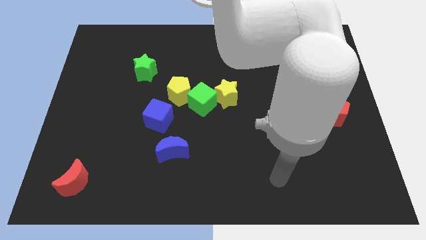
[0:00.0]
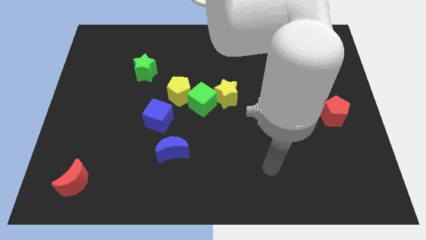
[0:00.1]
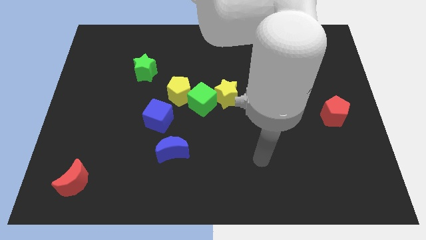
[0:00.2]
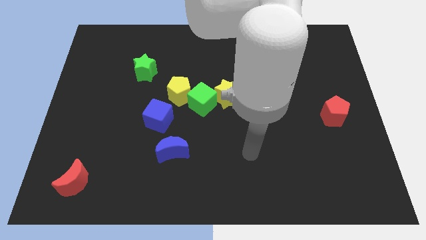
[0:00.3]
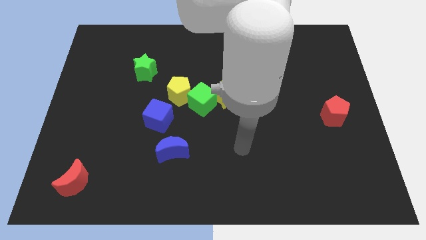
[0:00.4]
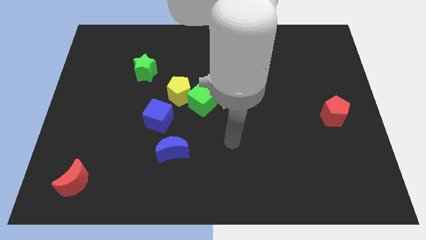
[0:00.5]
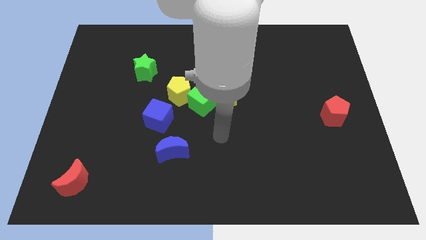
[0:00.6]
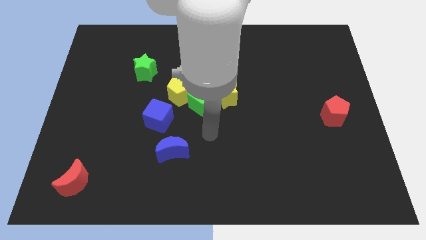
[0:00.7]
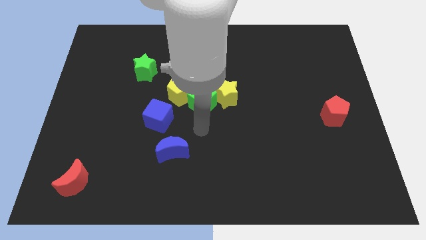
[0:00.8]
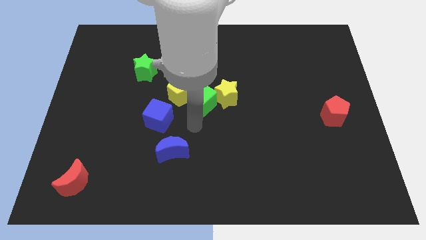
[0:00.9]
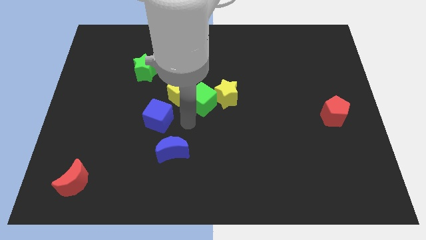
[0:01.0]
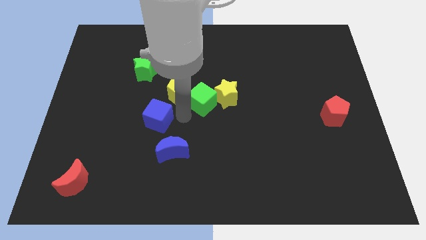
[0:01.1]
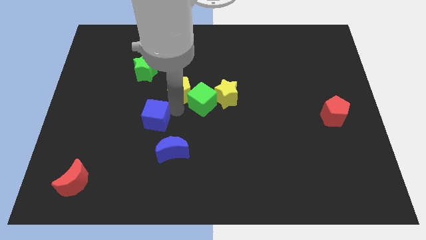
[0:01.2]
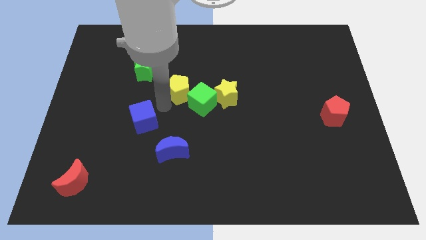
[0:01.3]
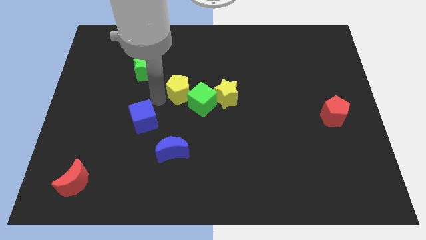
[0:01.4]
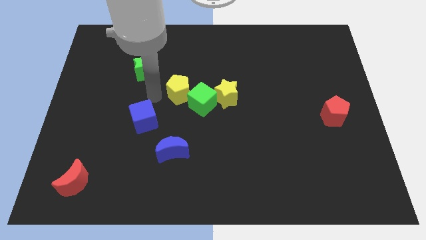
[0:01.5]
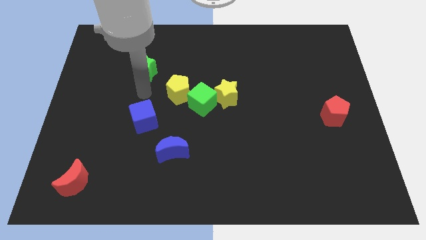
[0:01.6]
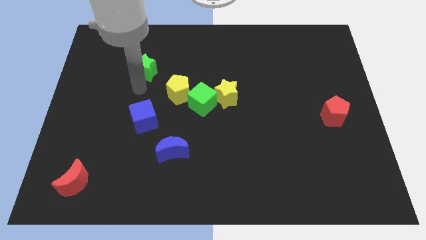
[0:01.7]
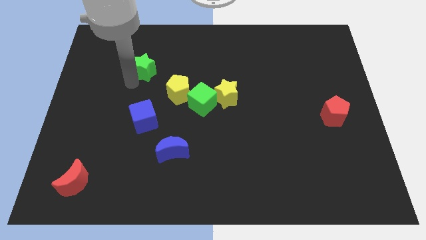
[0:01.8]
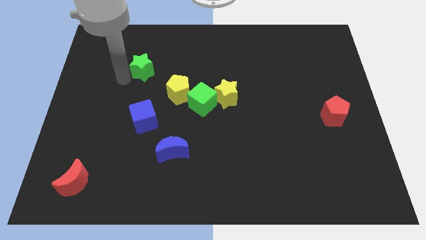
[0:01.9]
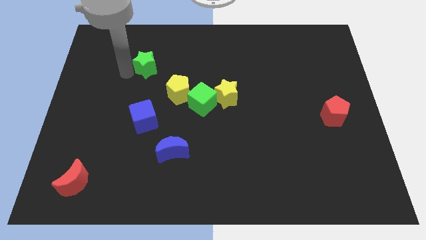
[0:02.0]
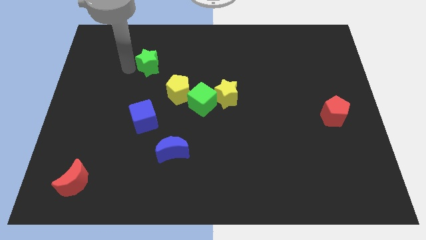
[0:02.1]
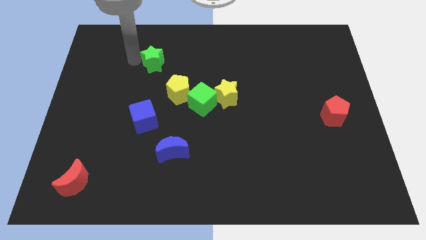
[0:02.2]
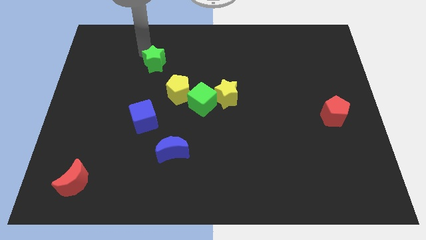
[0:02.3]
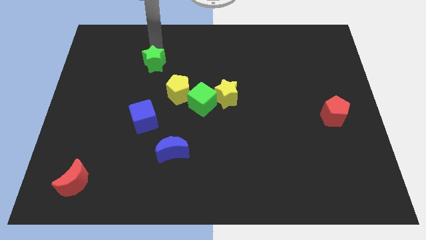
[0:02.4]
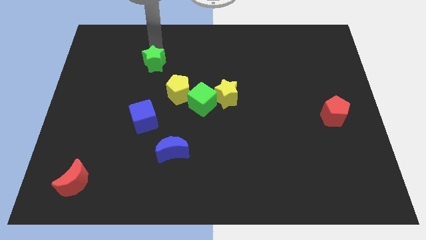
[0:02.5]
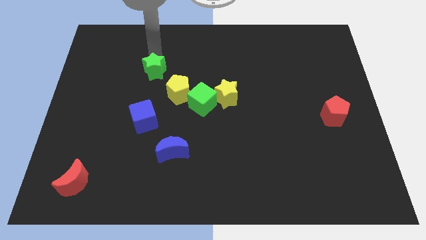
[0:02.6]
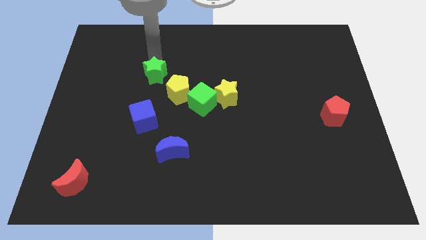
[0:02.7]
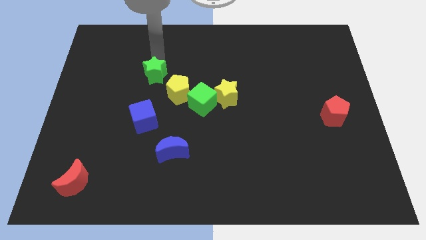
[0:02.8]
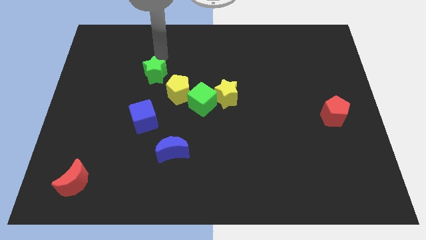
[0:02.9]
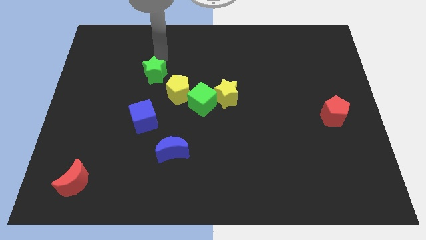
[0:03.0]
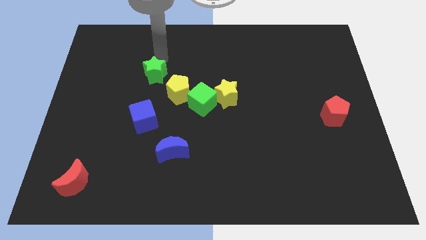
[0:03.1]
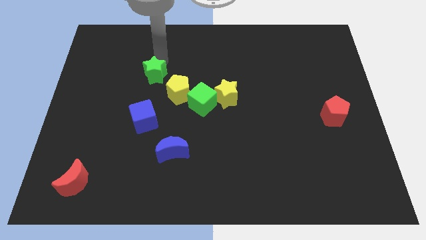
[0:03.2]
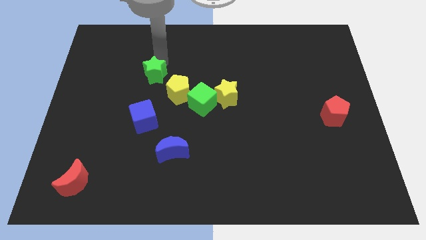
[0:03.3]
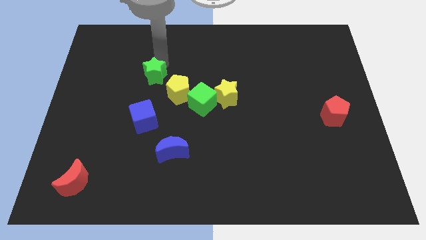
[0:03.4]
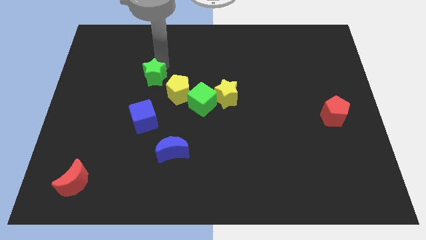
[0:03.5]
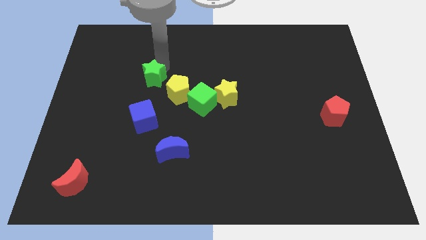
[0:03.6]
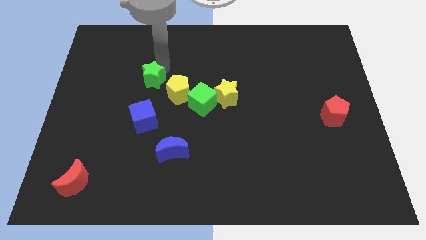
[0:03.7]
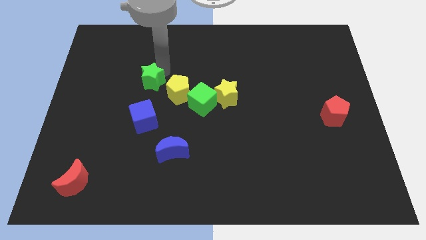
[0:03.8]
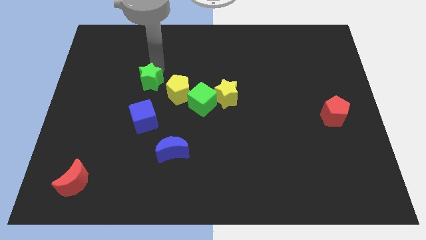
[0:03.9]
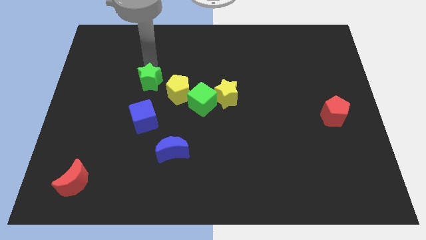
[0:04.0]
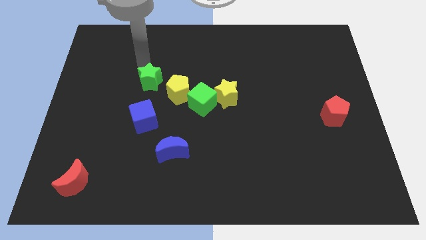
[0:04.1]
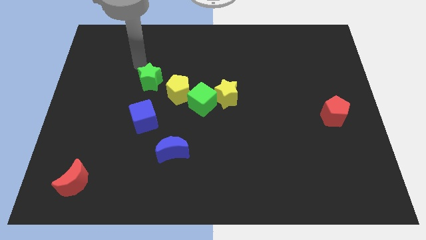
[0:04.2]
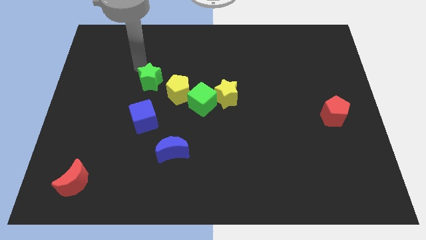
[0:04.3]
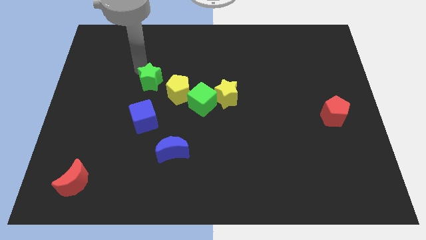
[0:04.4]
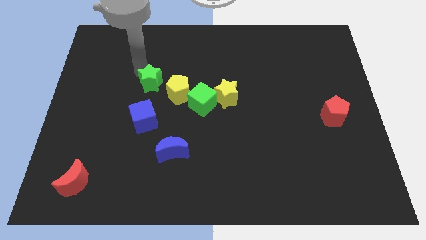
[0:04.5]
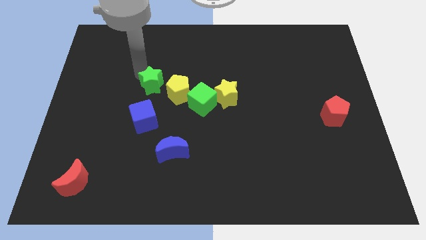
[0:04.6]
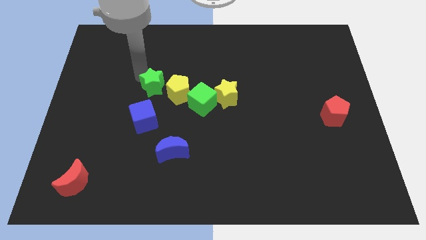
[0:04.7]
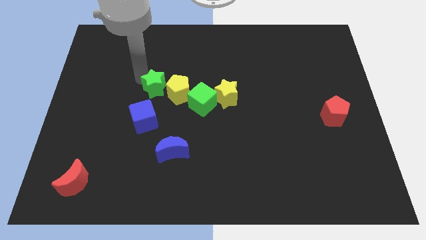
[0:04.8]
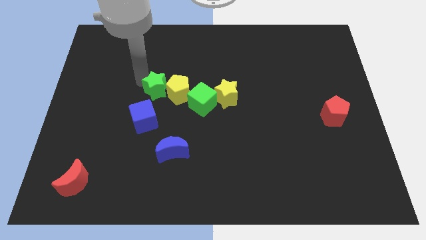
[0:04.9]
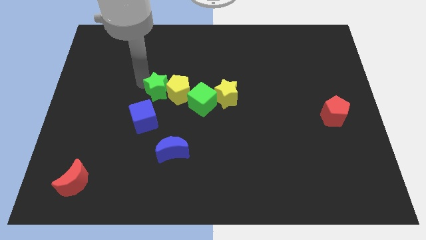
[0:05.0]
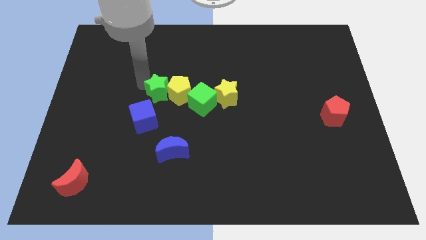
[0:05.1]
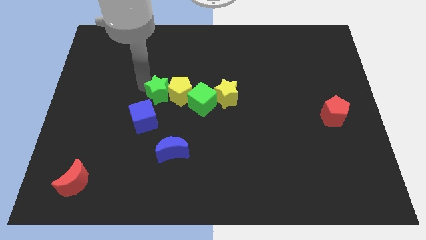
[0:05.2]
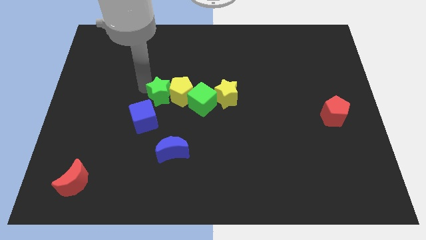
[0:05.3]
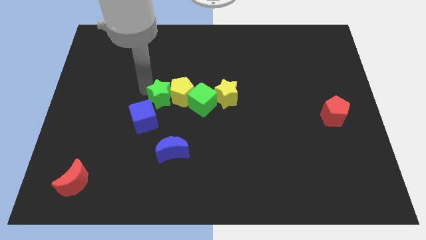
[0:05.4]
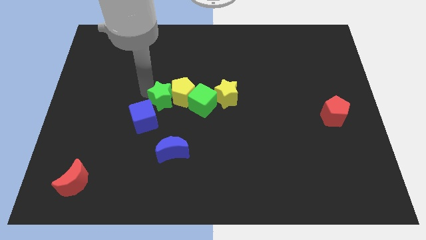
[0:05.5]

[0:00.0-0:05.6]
slide the green star to the top of the blue moon
